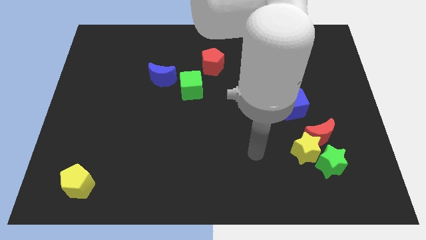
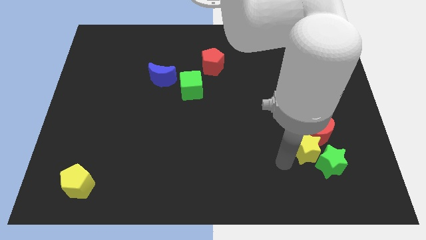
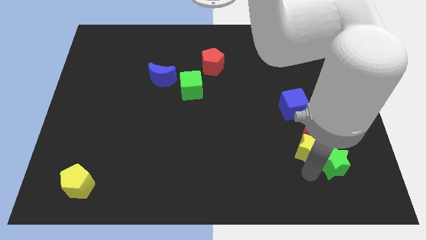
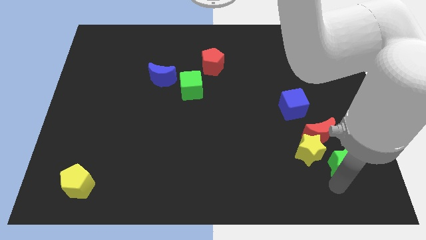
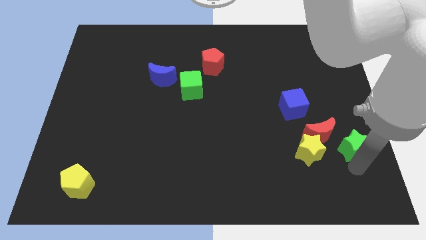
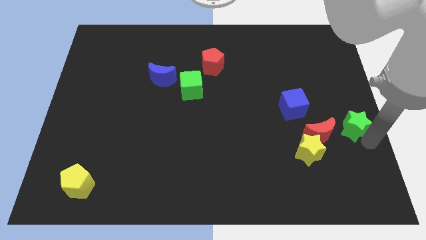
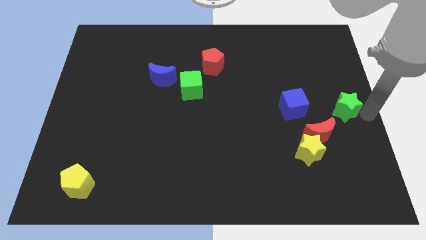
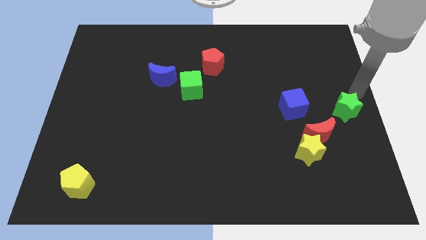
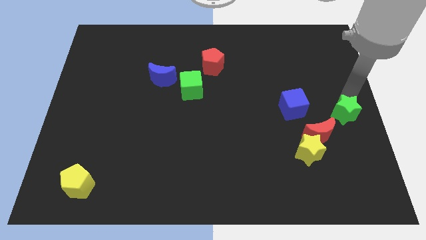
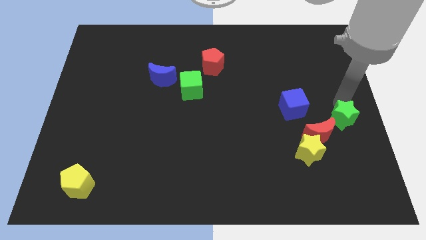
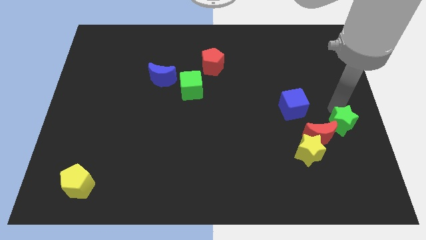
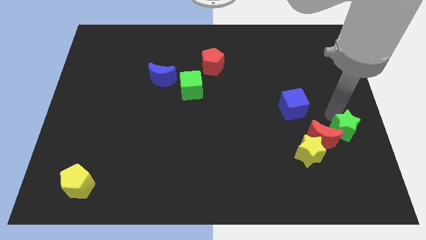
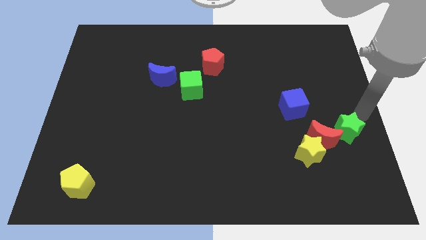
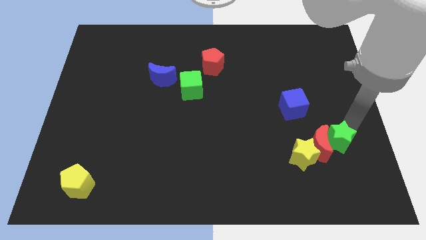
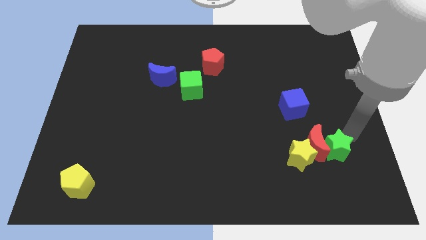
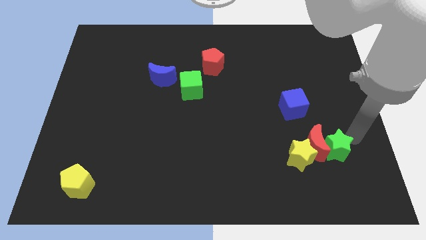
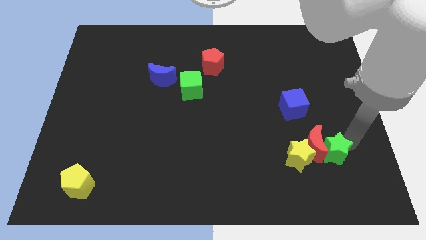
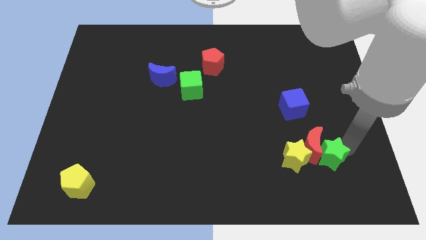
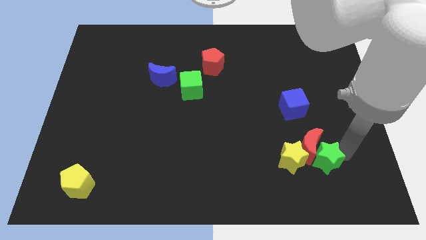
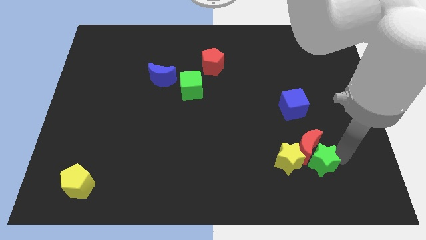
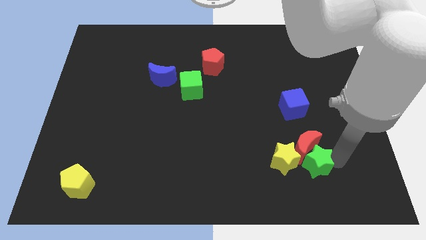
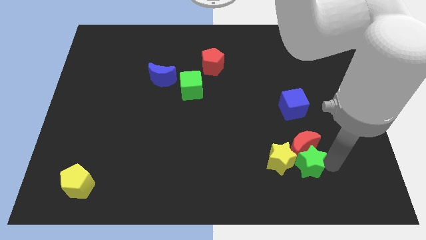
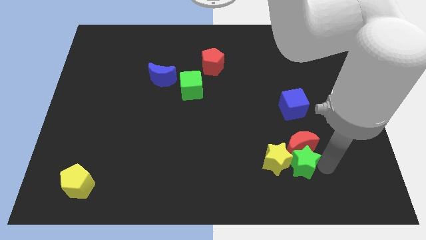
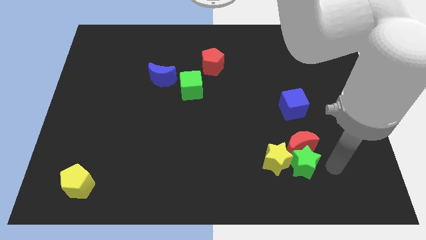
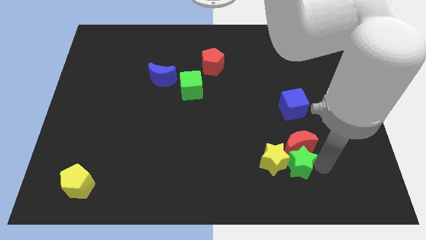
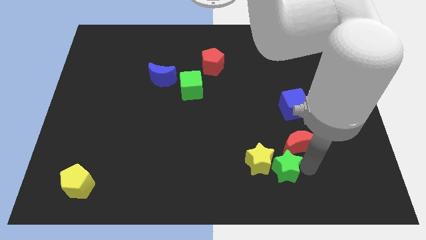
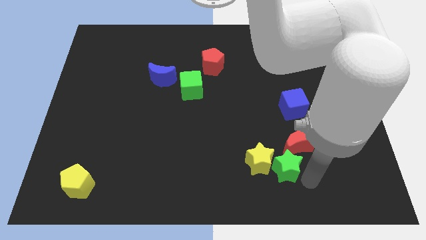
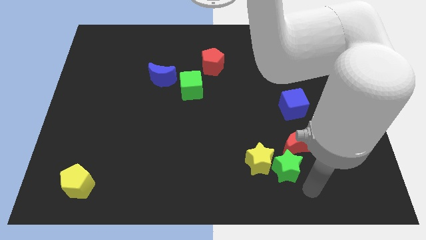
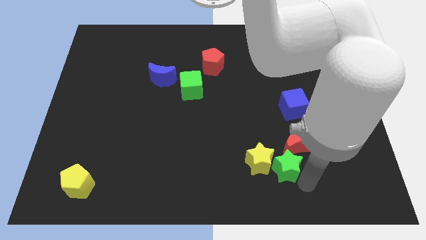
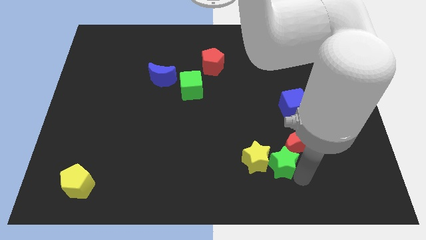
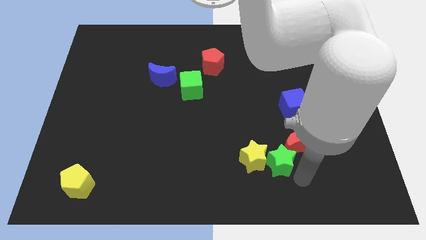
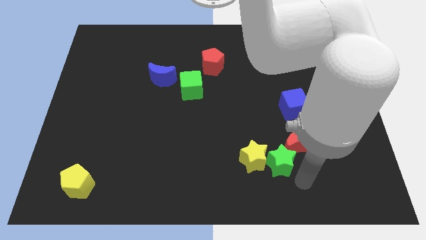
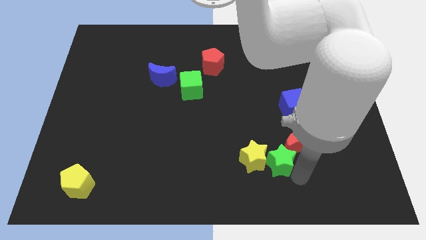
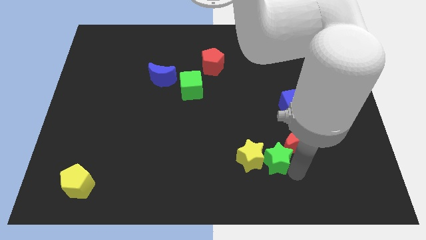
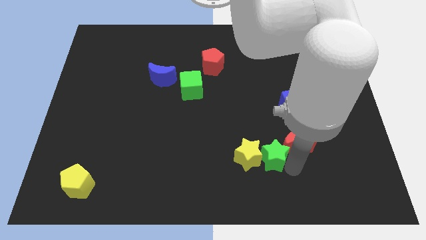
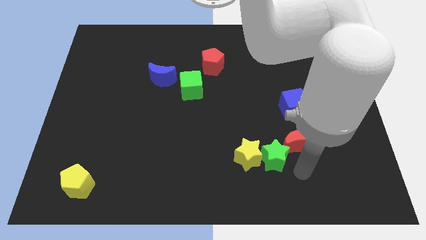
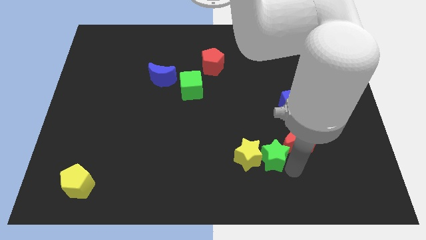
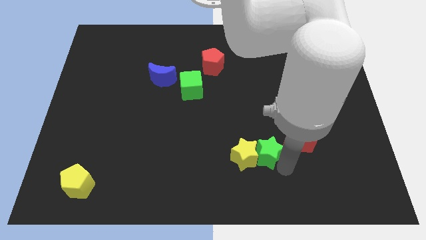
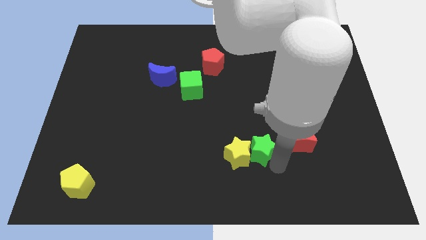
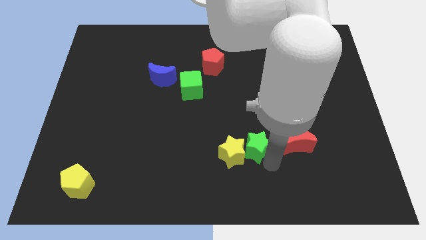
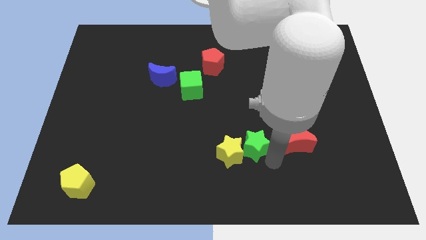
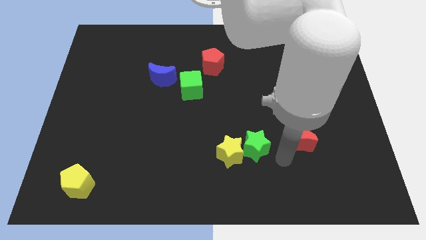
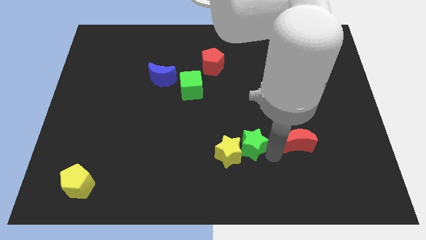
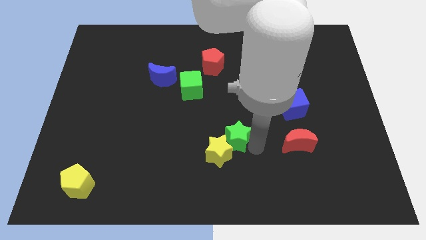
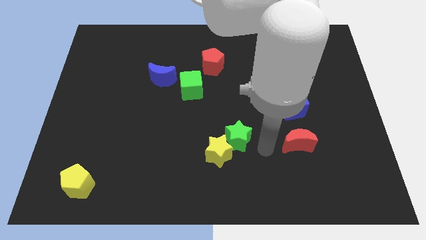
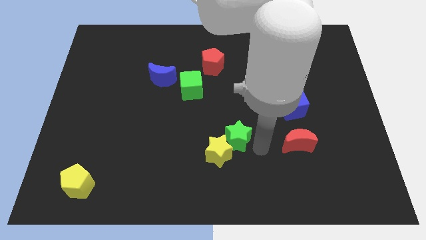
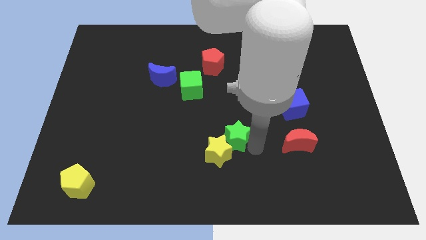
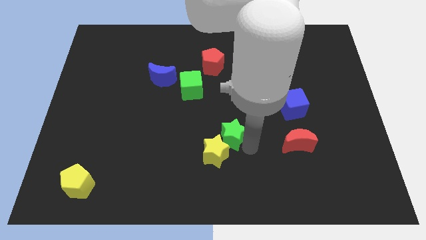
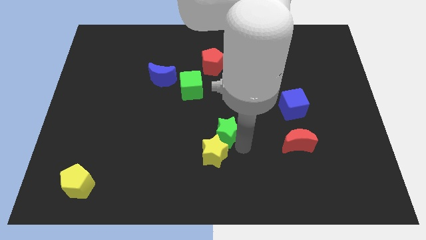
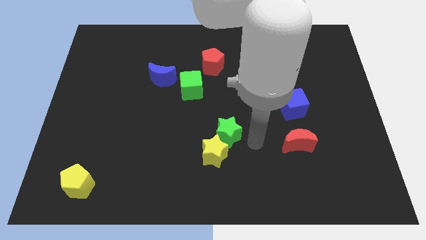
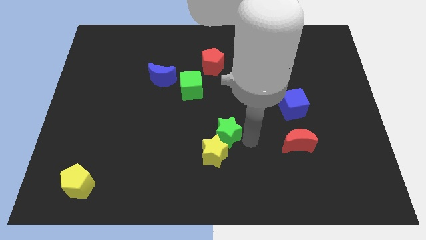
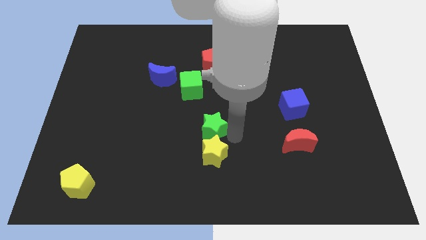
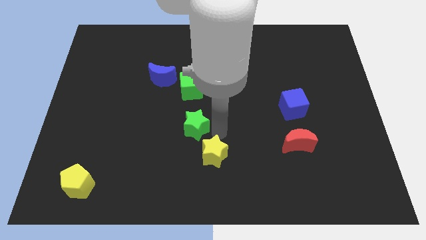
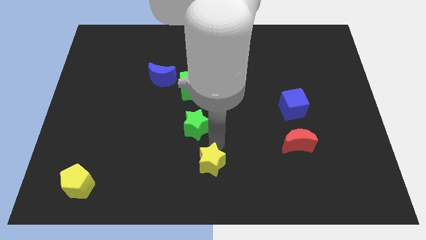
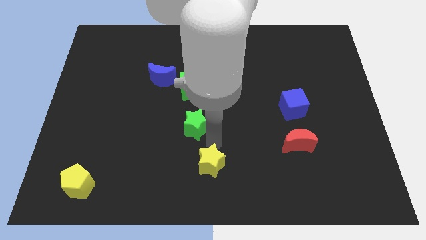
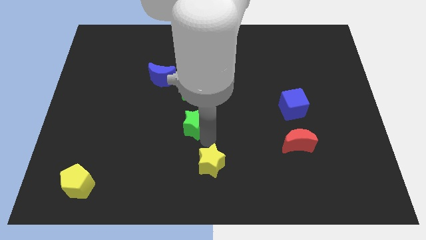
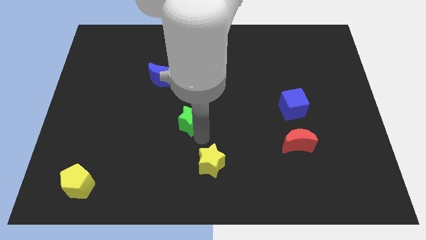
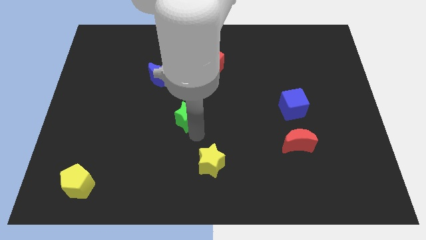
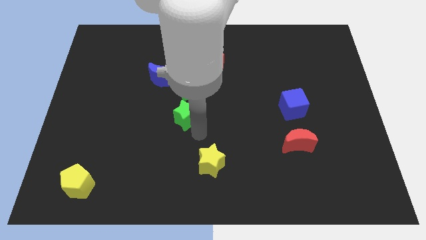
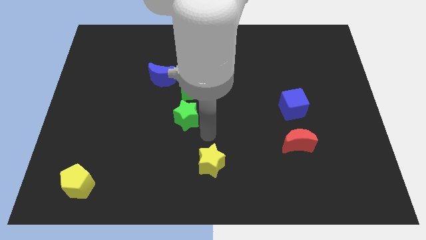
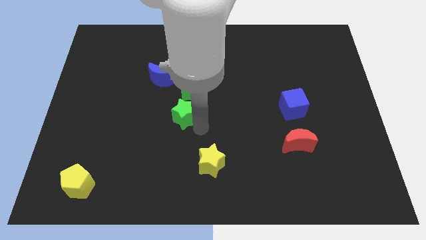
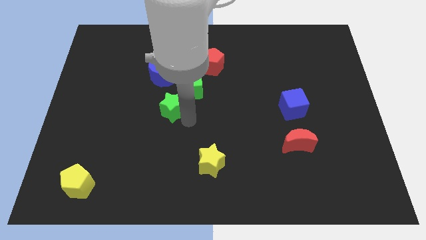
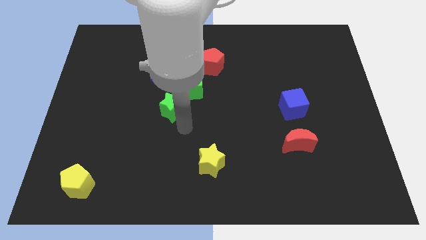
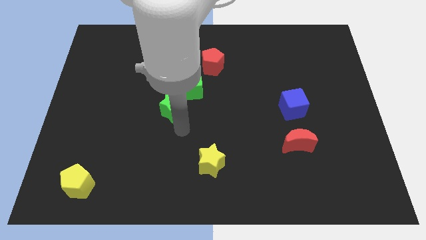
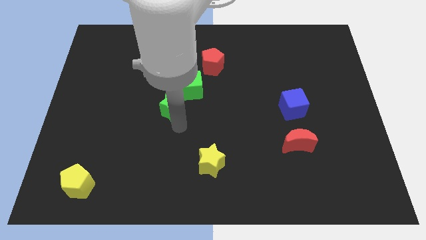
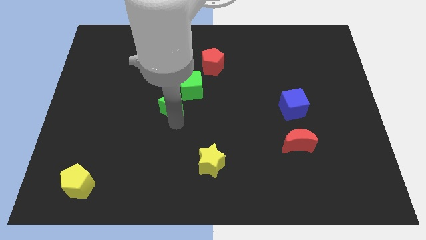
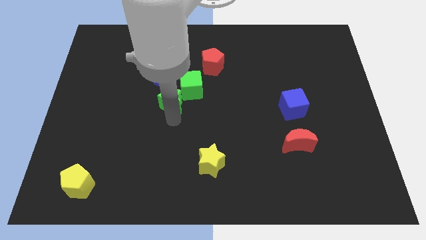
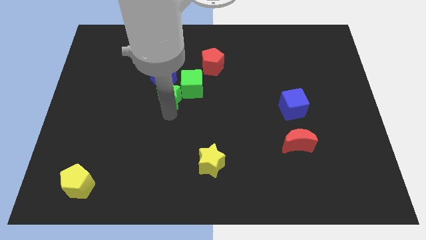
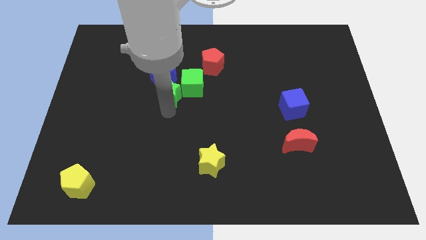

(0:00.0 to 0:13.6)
move the green star next to the blue moon

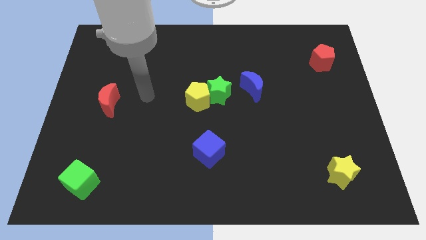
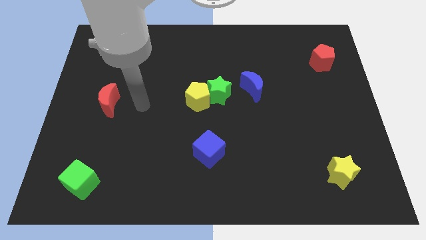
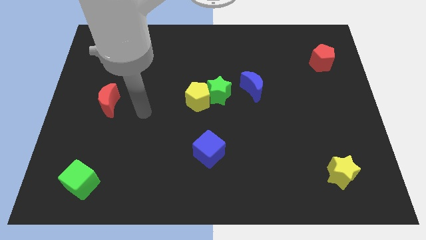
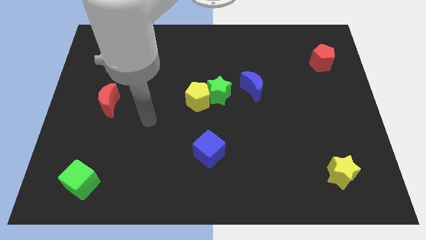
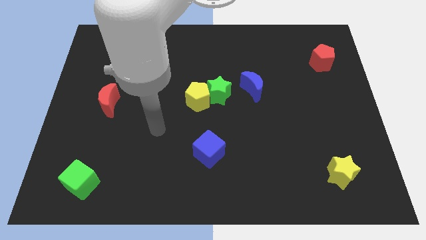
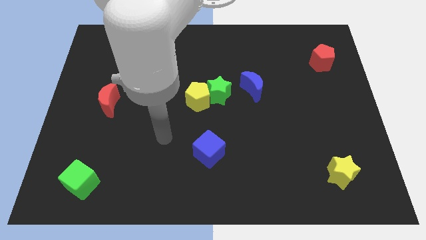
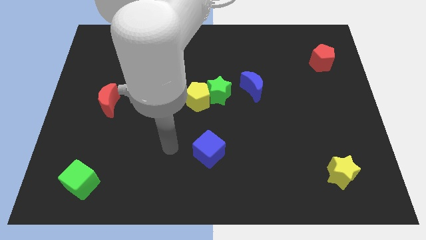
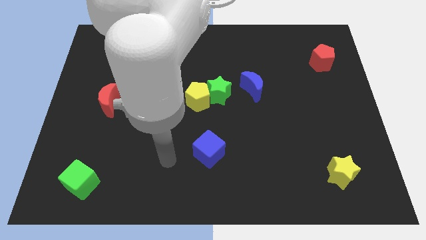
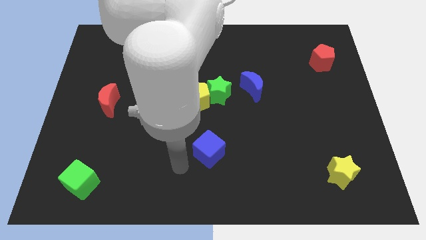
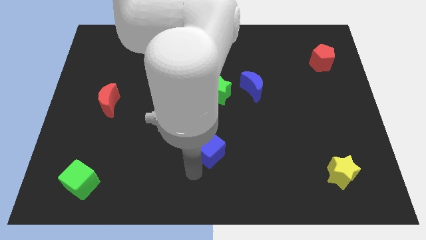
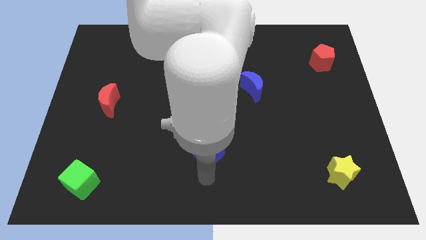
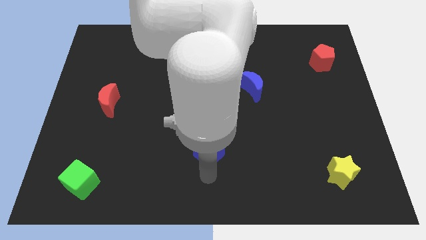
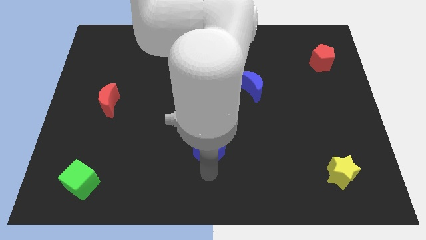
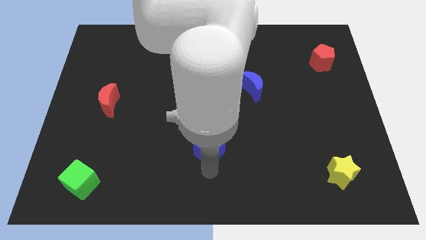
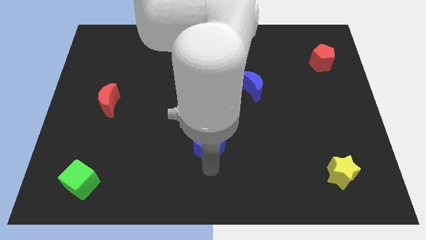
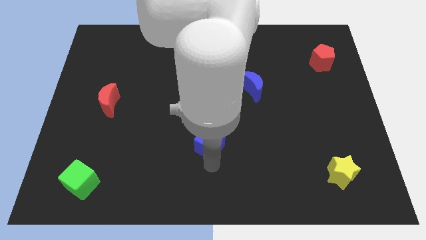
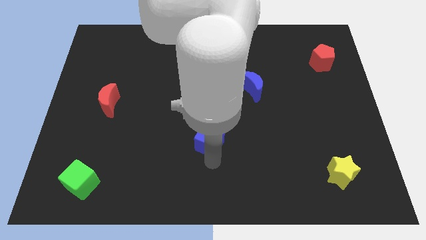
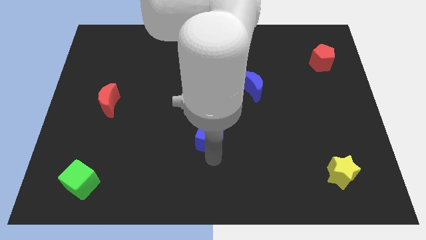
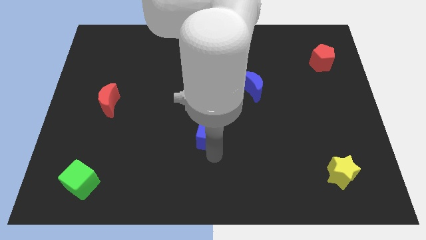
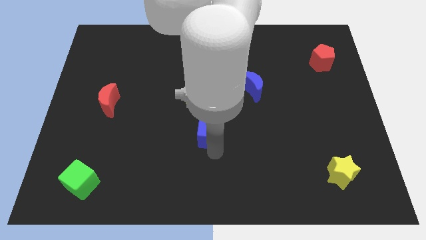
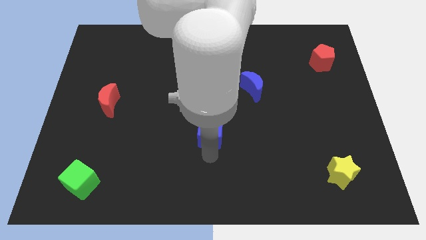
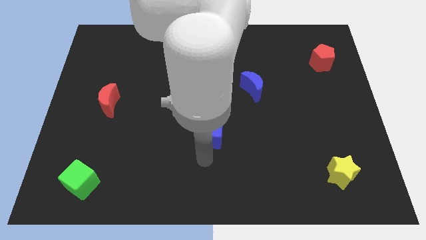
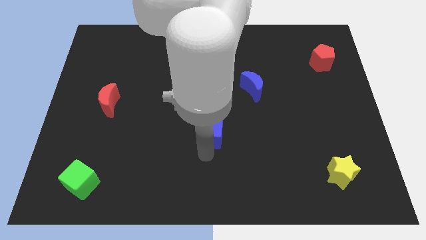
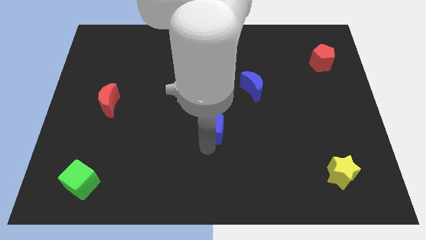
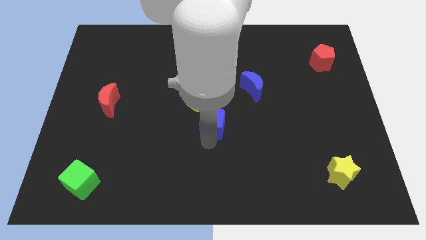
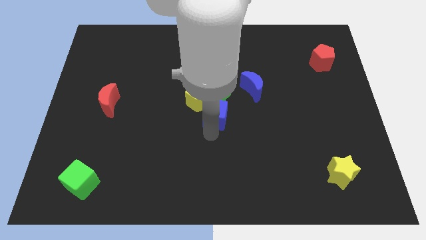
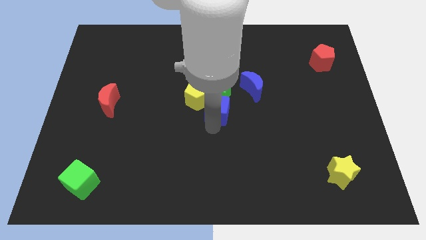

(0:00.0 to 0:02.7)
put the blue cube to the green star
